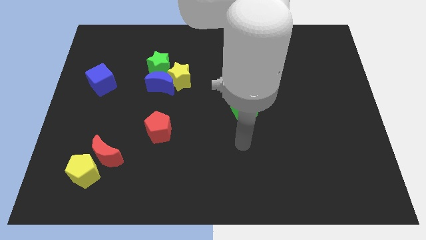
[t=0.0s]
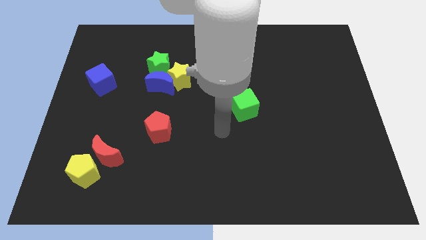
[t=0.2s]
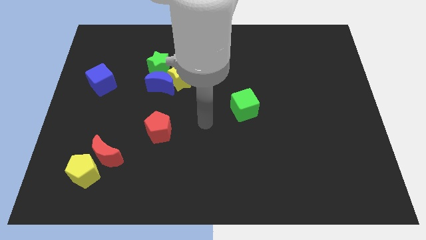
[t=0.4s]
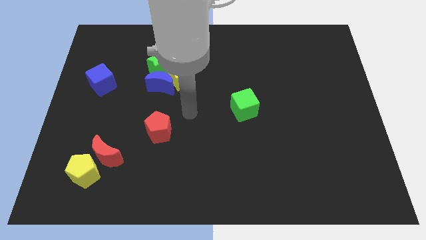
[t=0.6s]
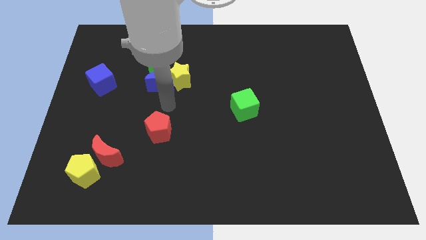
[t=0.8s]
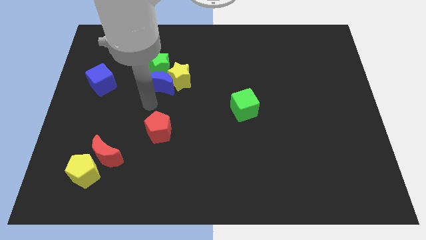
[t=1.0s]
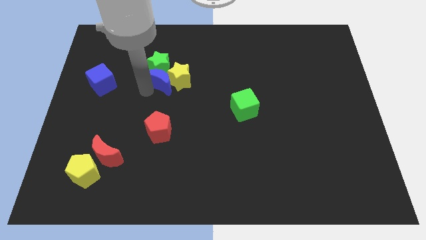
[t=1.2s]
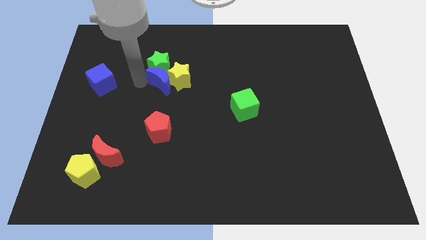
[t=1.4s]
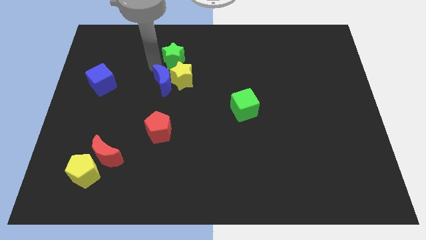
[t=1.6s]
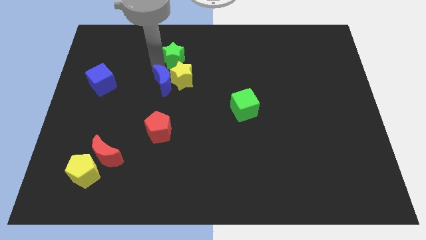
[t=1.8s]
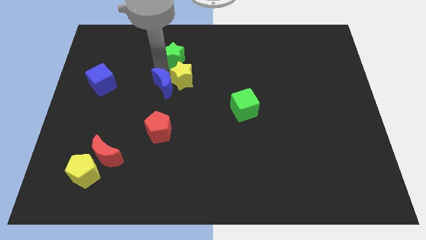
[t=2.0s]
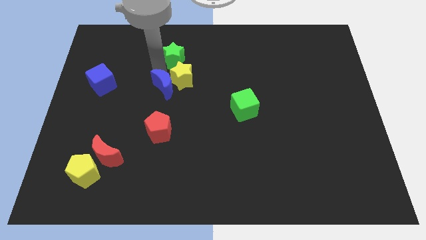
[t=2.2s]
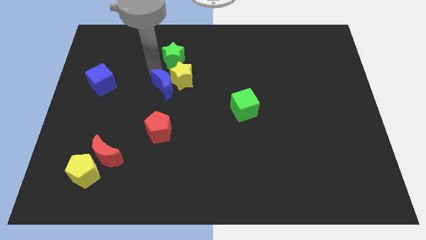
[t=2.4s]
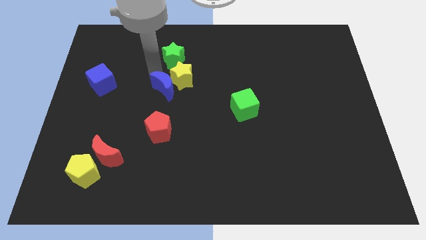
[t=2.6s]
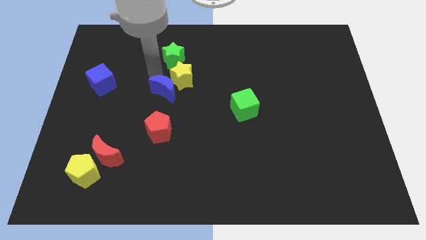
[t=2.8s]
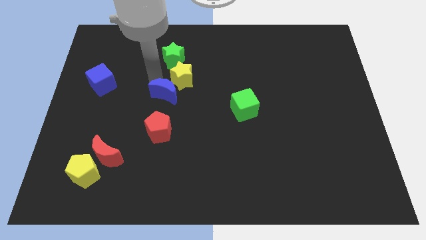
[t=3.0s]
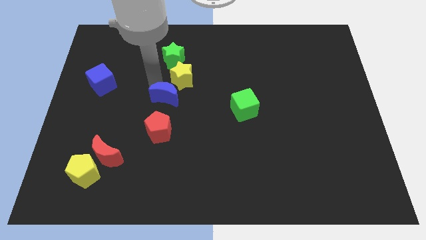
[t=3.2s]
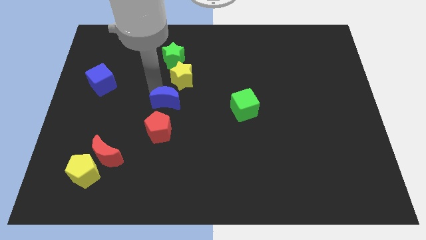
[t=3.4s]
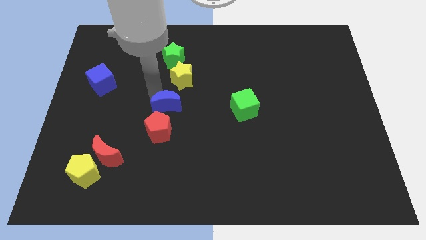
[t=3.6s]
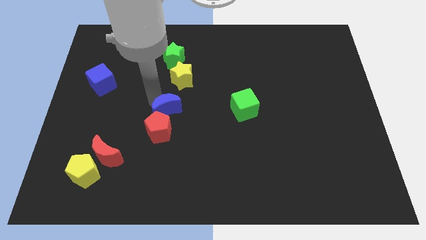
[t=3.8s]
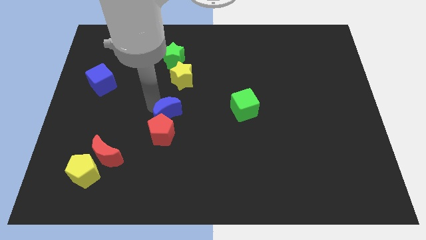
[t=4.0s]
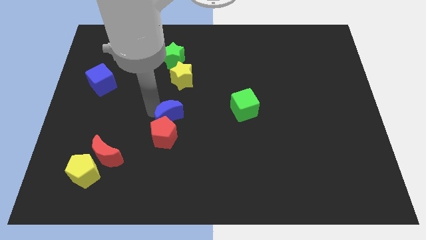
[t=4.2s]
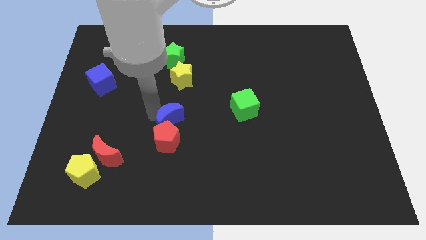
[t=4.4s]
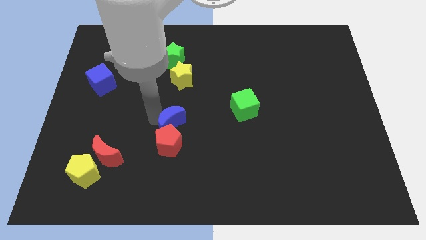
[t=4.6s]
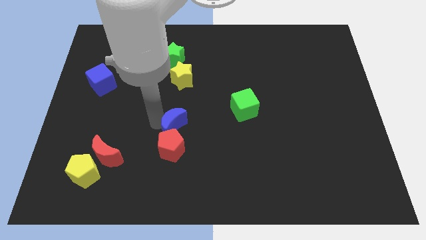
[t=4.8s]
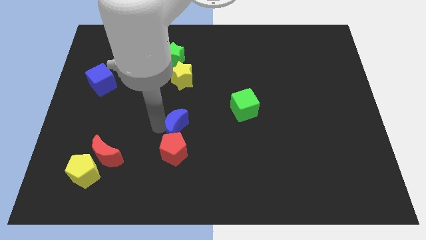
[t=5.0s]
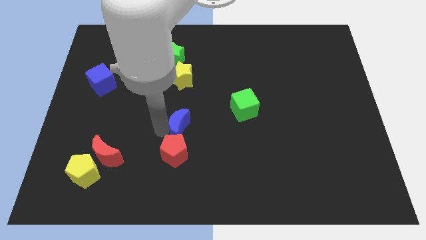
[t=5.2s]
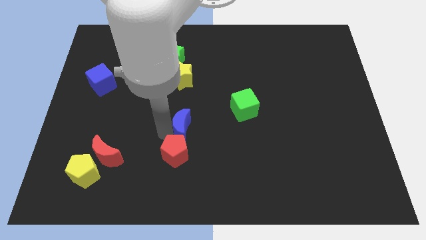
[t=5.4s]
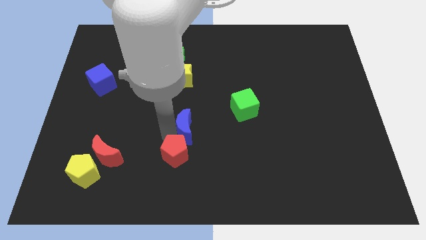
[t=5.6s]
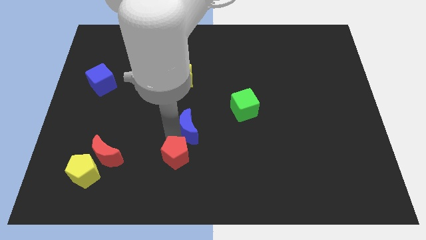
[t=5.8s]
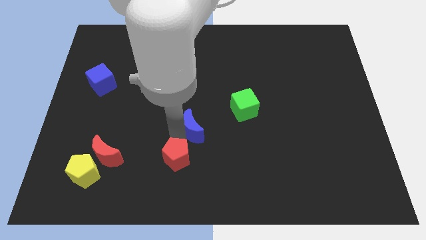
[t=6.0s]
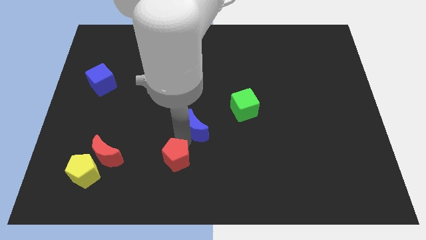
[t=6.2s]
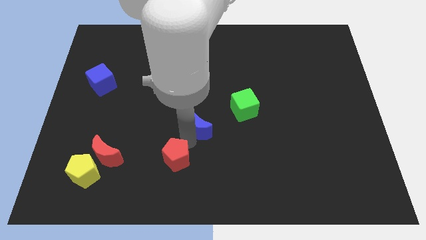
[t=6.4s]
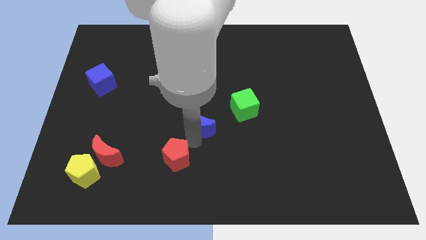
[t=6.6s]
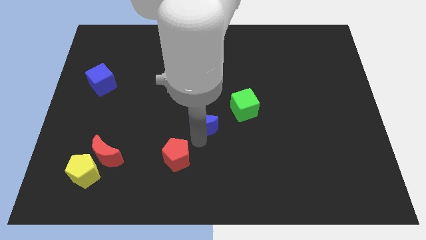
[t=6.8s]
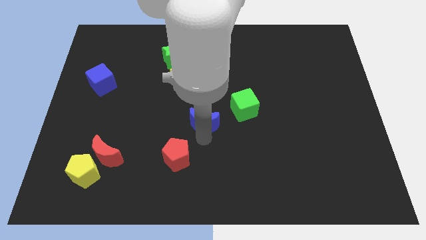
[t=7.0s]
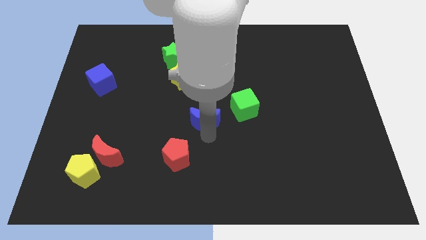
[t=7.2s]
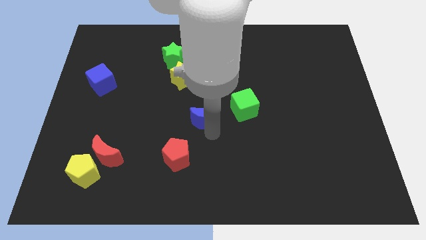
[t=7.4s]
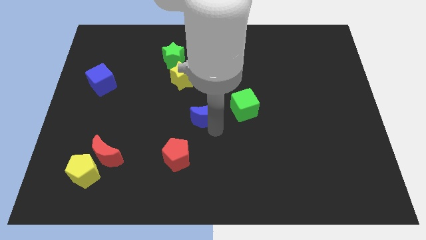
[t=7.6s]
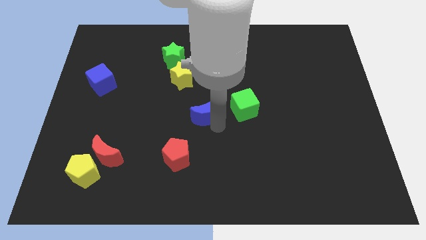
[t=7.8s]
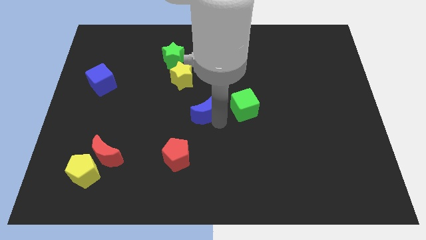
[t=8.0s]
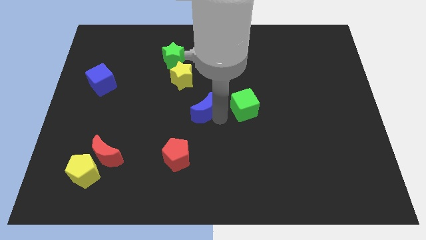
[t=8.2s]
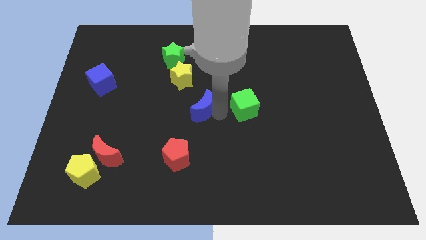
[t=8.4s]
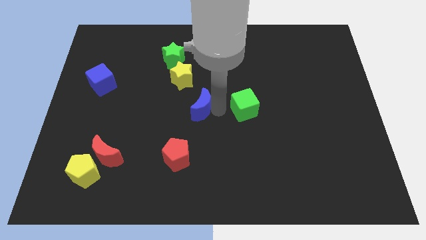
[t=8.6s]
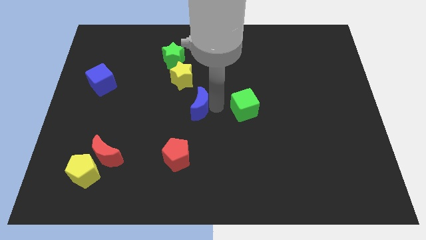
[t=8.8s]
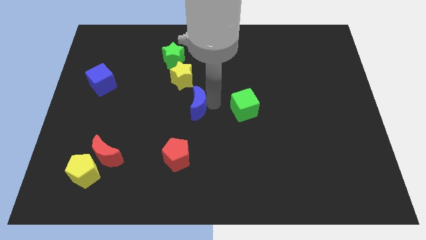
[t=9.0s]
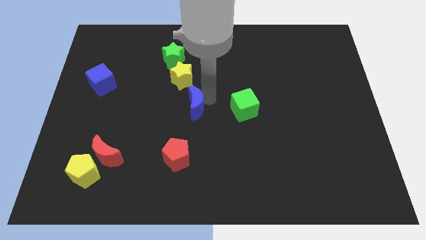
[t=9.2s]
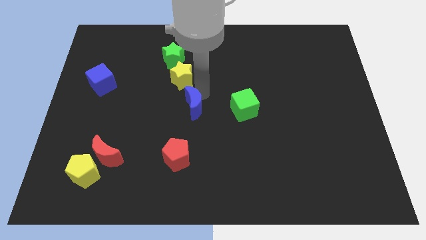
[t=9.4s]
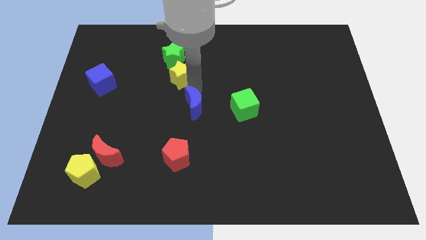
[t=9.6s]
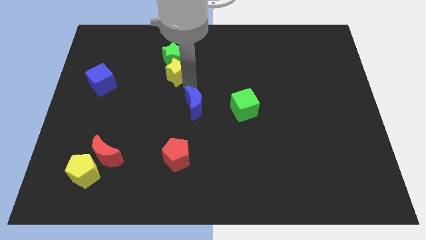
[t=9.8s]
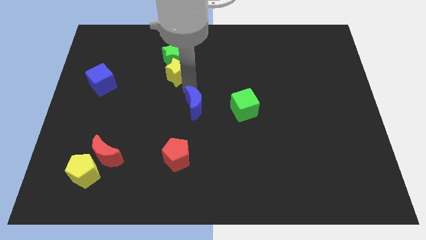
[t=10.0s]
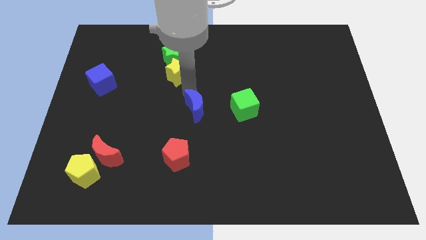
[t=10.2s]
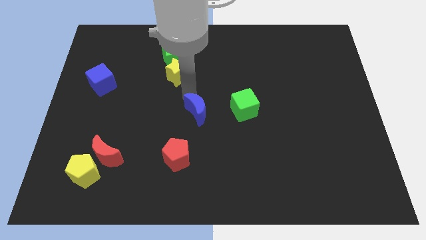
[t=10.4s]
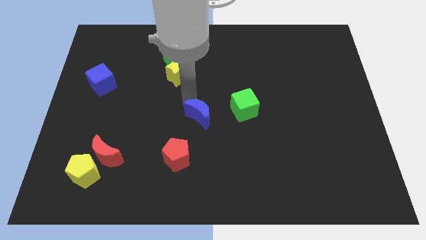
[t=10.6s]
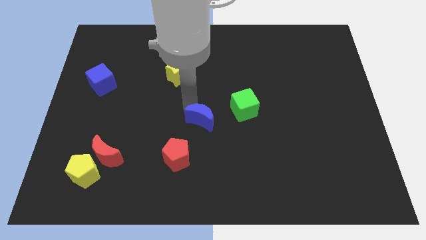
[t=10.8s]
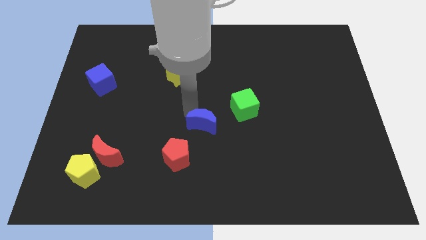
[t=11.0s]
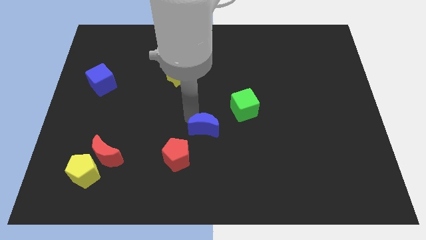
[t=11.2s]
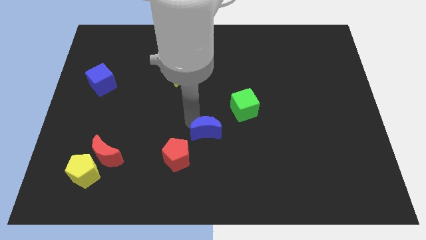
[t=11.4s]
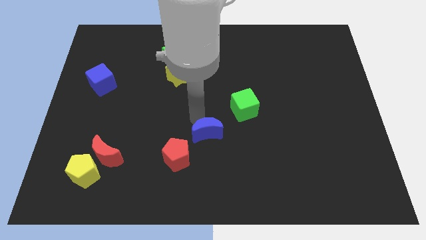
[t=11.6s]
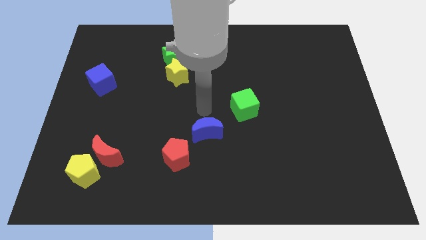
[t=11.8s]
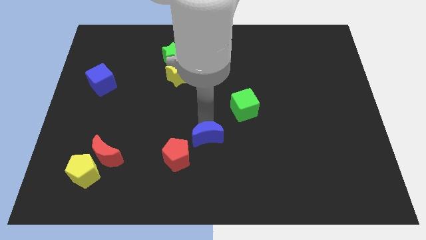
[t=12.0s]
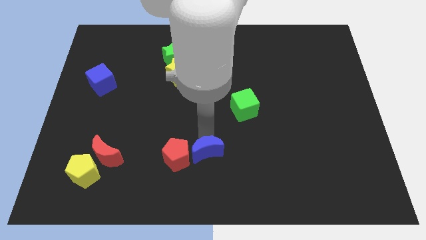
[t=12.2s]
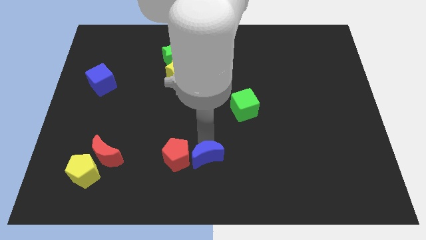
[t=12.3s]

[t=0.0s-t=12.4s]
put the blue moon to the bottom side

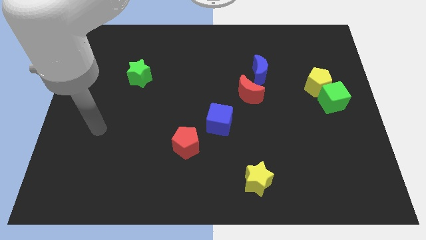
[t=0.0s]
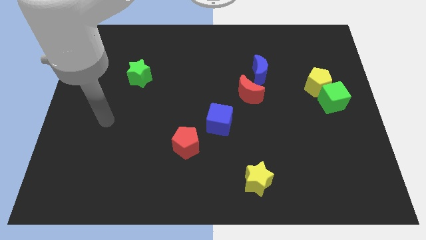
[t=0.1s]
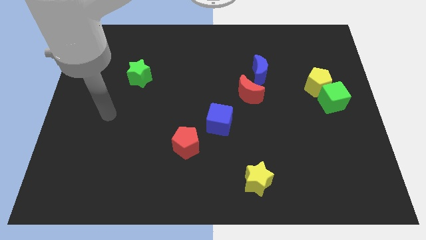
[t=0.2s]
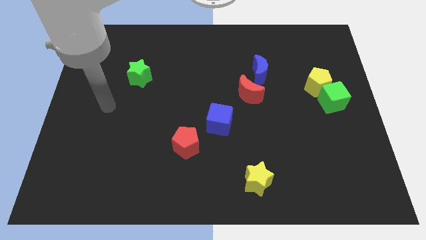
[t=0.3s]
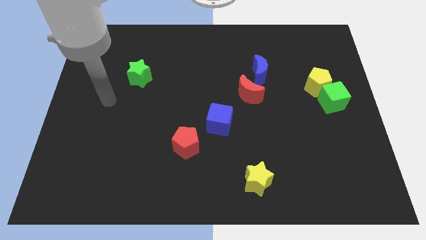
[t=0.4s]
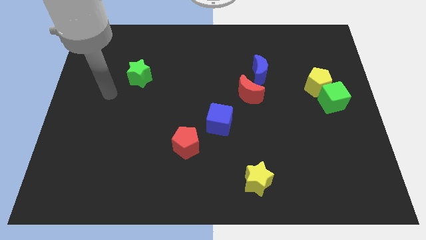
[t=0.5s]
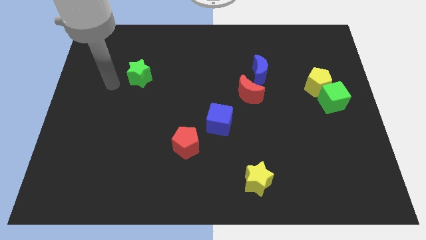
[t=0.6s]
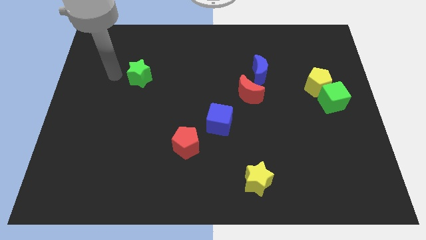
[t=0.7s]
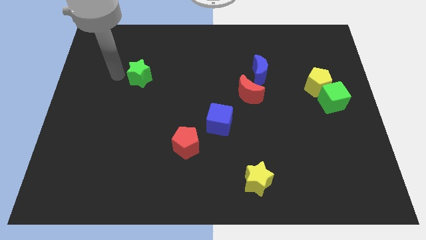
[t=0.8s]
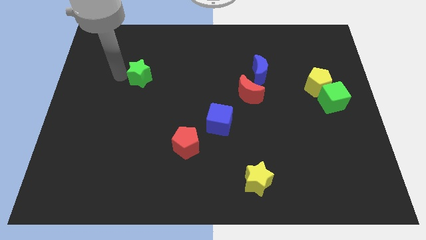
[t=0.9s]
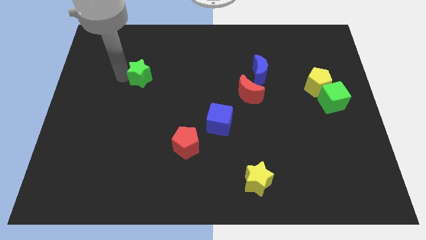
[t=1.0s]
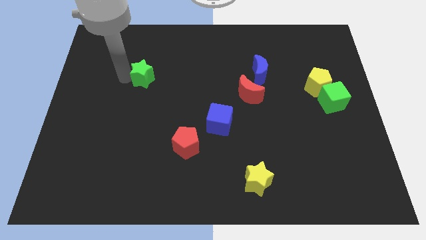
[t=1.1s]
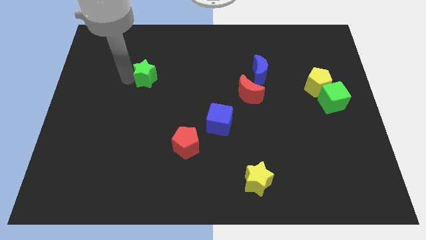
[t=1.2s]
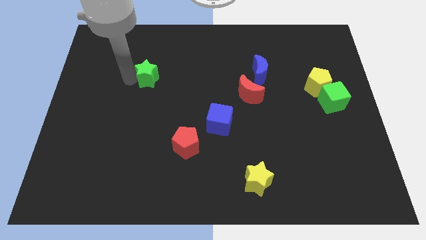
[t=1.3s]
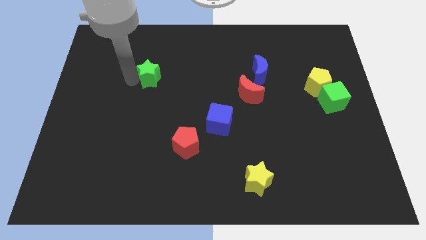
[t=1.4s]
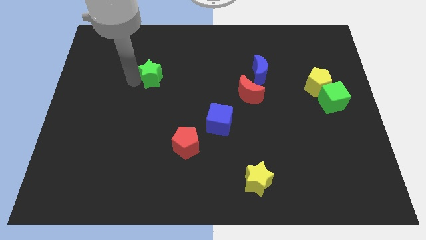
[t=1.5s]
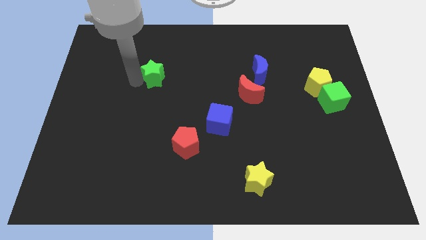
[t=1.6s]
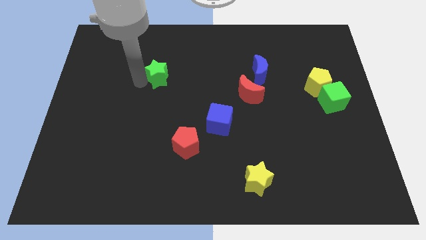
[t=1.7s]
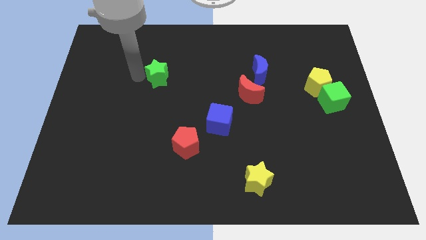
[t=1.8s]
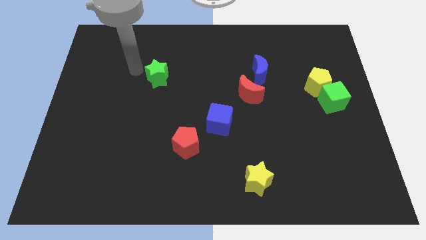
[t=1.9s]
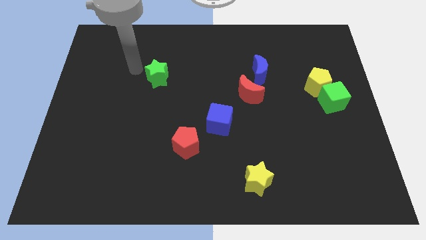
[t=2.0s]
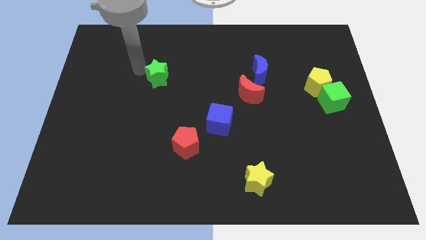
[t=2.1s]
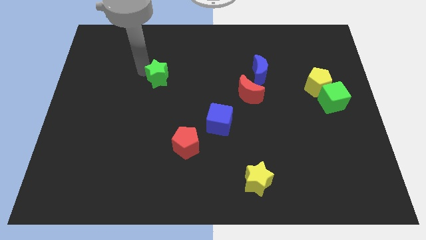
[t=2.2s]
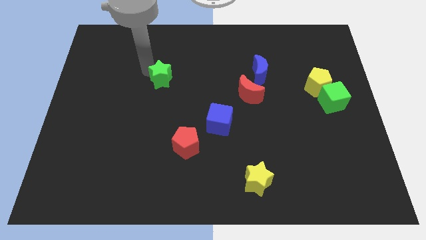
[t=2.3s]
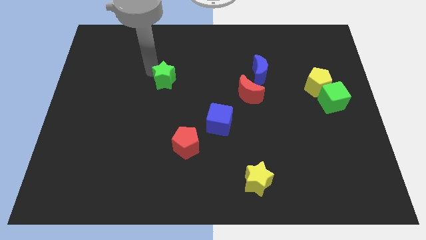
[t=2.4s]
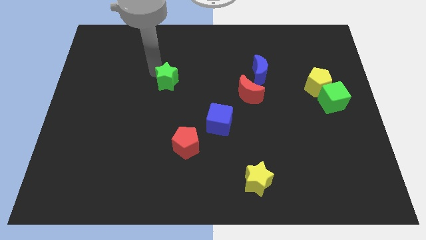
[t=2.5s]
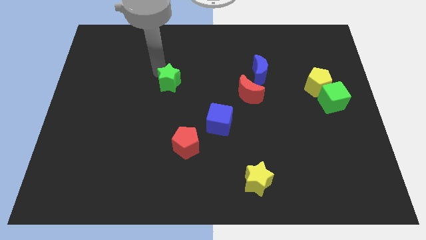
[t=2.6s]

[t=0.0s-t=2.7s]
move the green star to the middle
